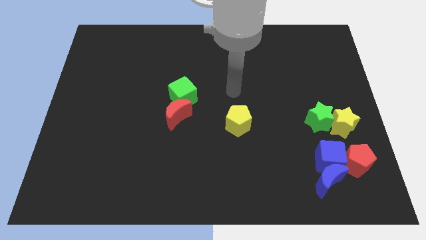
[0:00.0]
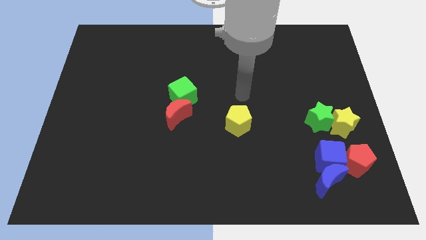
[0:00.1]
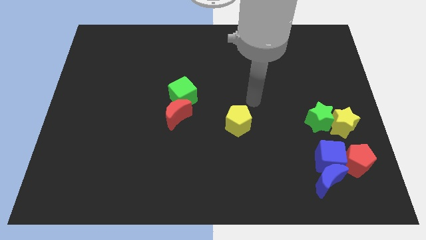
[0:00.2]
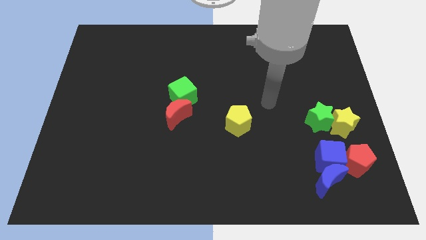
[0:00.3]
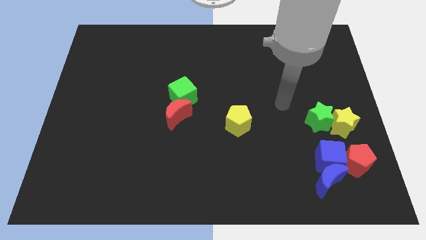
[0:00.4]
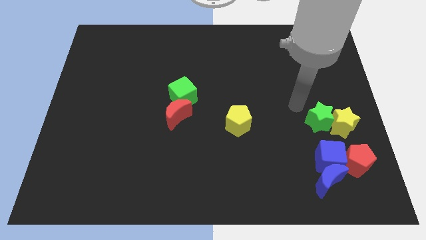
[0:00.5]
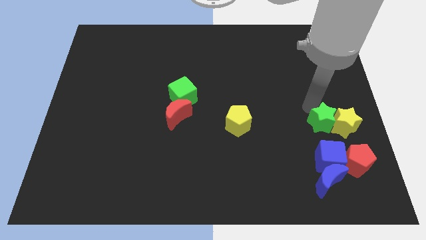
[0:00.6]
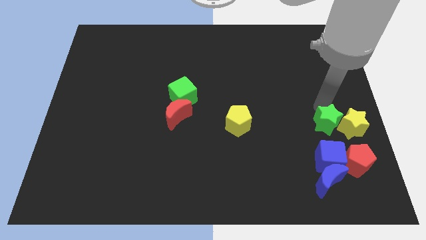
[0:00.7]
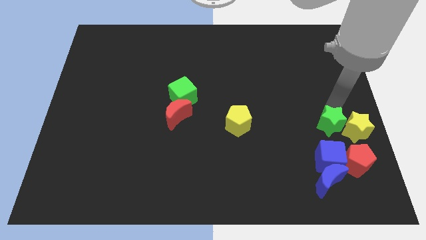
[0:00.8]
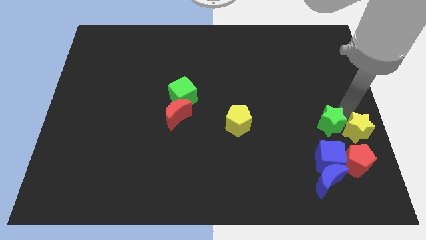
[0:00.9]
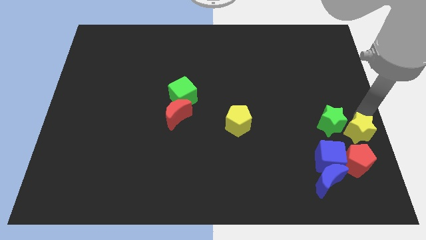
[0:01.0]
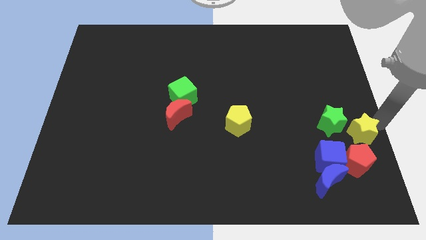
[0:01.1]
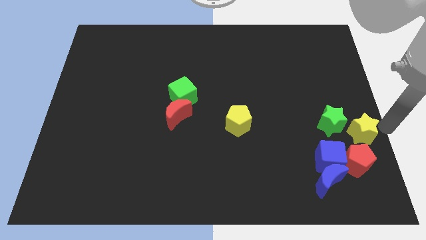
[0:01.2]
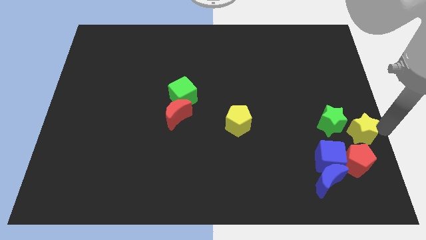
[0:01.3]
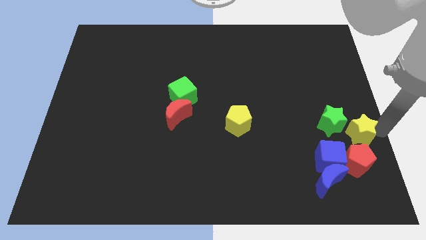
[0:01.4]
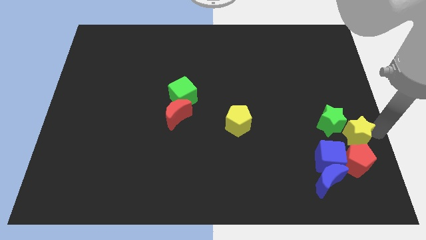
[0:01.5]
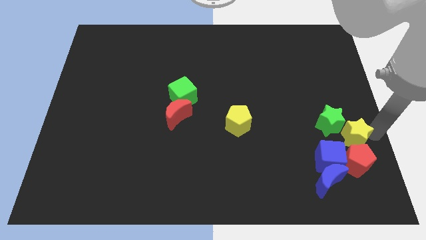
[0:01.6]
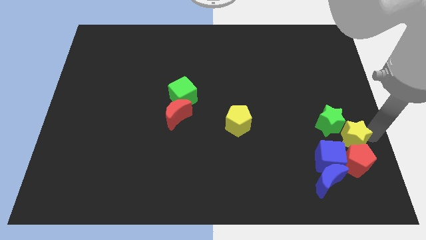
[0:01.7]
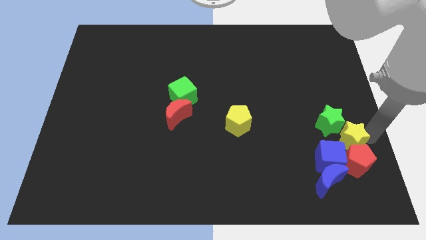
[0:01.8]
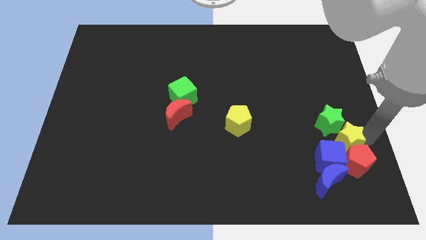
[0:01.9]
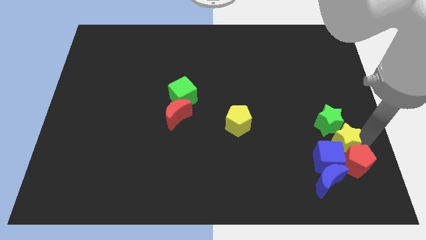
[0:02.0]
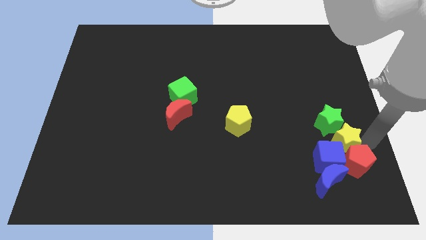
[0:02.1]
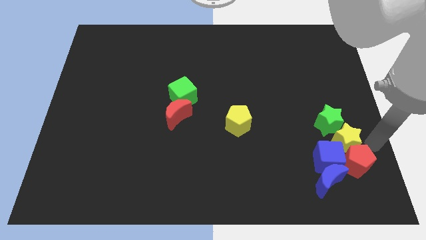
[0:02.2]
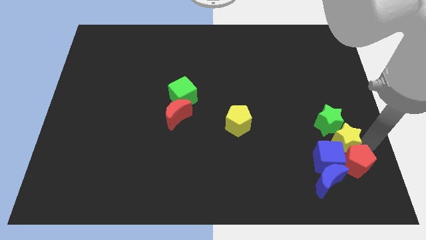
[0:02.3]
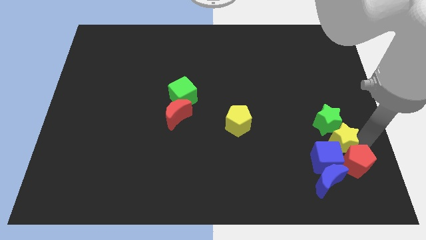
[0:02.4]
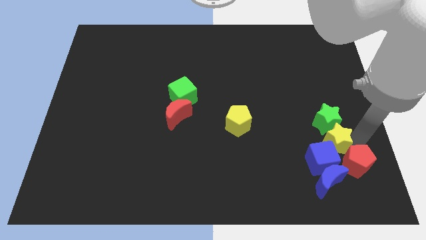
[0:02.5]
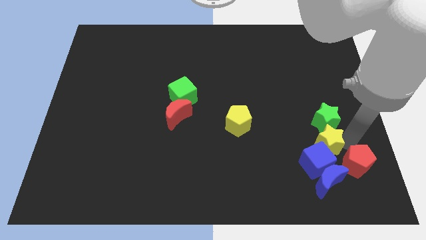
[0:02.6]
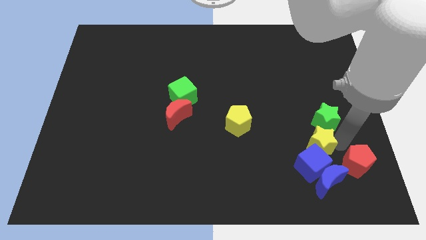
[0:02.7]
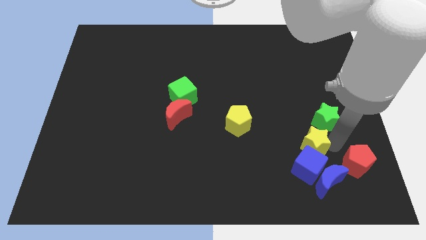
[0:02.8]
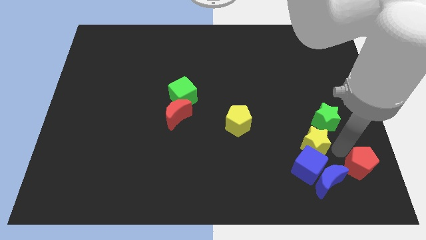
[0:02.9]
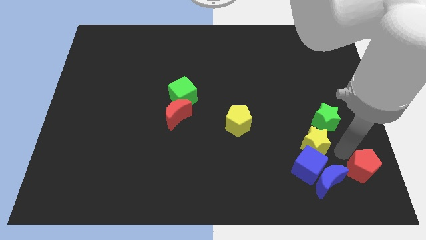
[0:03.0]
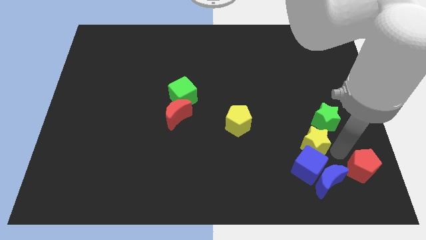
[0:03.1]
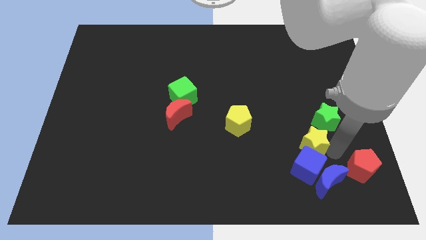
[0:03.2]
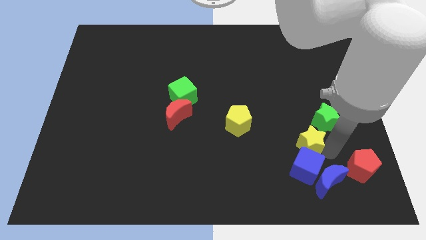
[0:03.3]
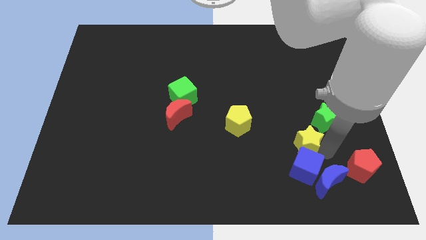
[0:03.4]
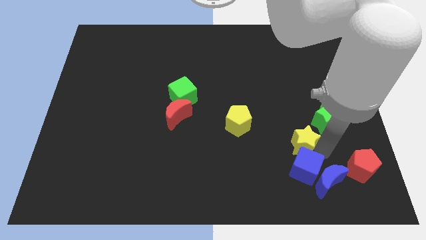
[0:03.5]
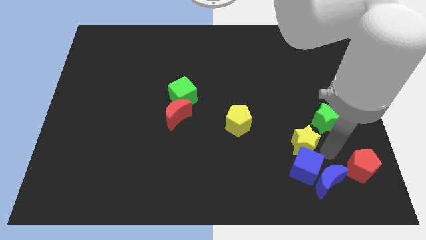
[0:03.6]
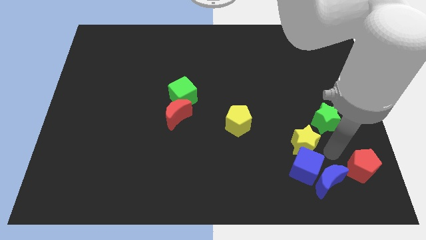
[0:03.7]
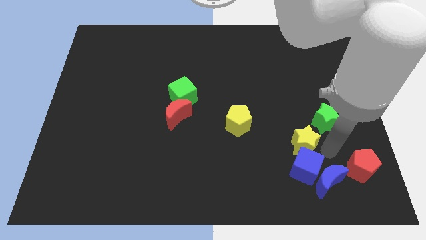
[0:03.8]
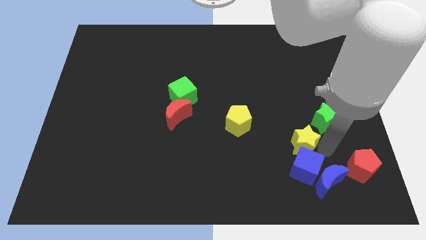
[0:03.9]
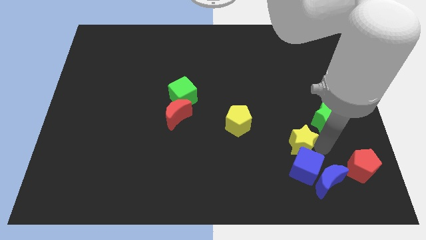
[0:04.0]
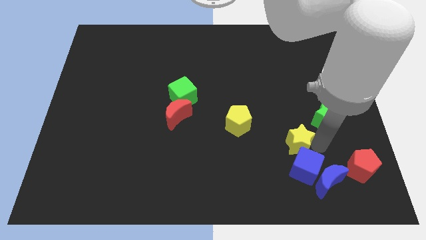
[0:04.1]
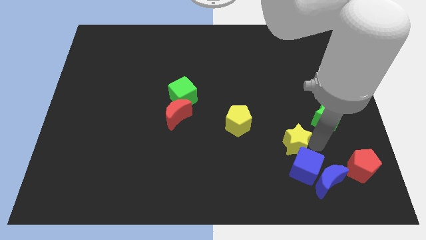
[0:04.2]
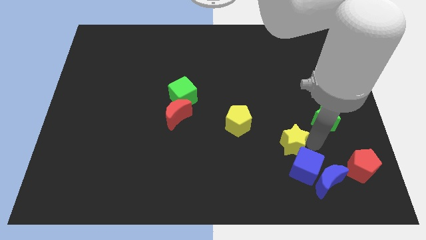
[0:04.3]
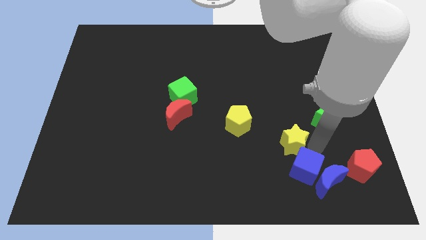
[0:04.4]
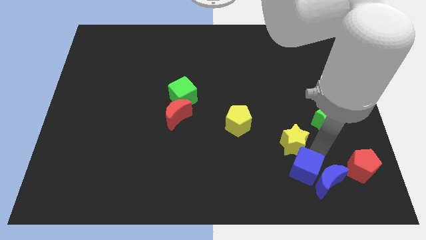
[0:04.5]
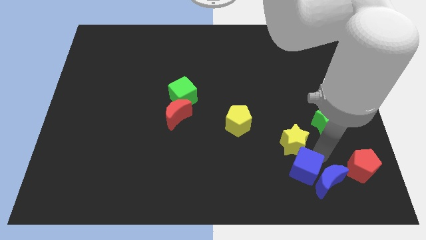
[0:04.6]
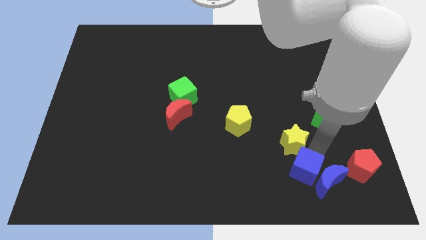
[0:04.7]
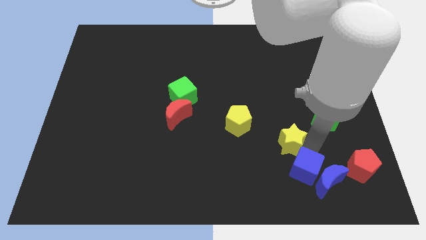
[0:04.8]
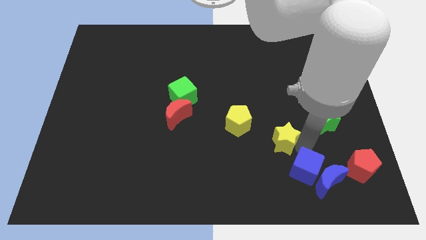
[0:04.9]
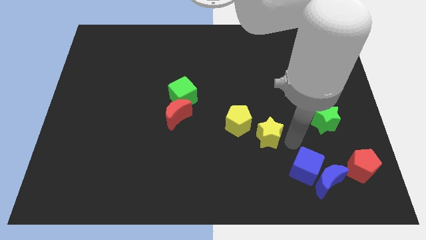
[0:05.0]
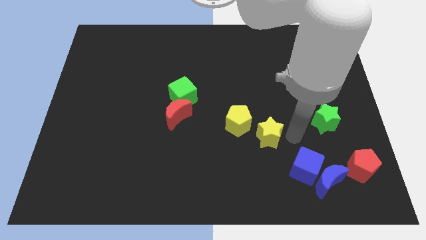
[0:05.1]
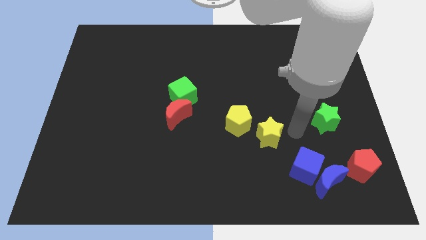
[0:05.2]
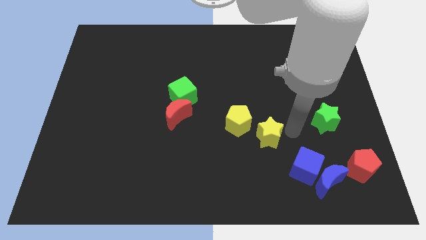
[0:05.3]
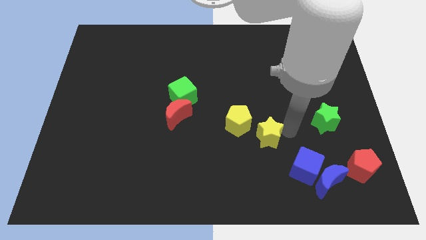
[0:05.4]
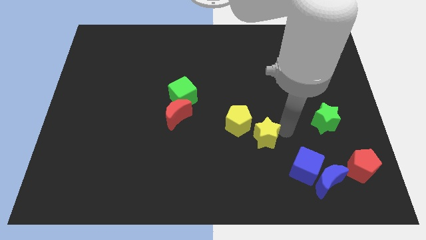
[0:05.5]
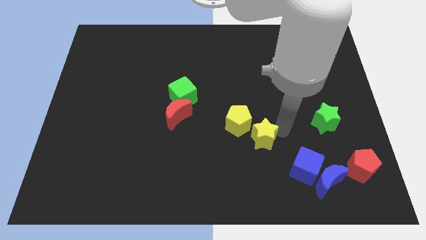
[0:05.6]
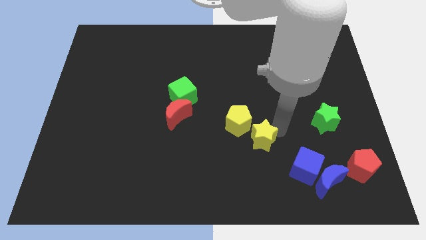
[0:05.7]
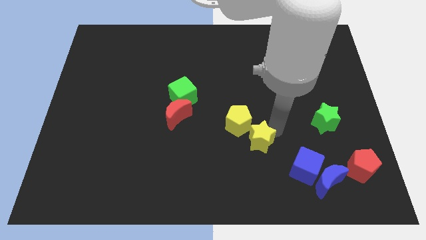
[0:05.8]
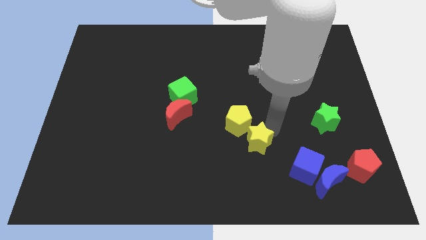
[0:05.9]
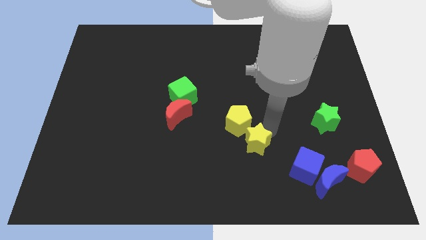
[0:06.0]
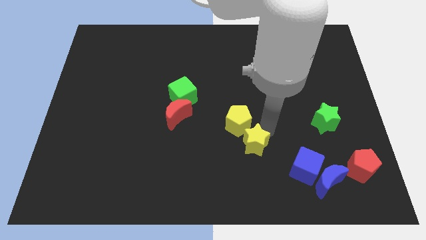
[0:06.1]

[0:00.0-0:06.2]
move the yellow star left

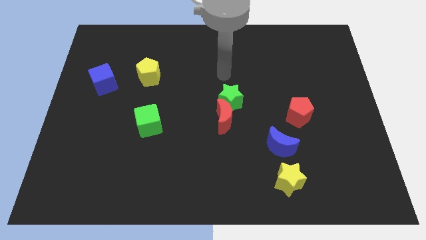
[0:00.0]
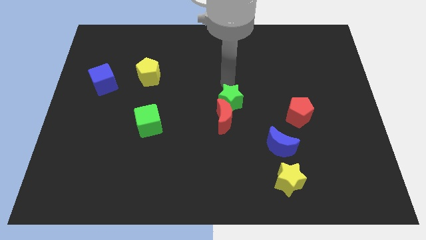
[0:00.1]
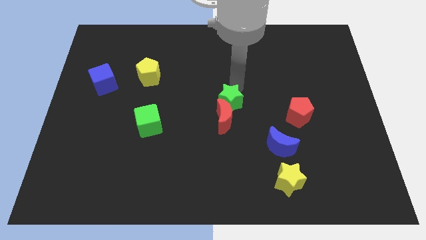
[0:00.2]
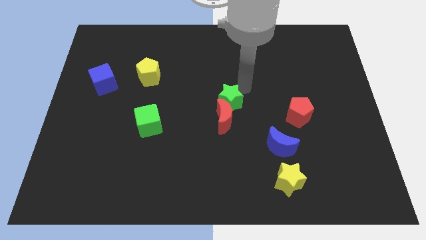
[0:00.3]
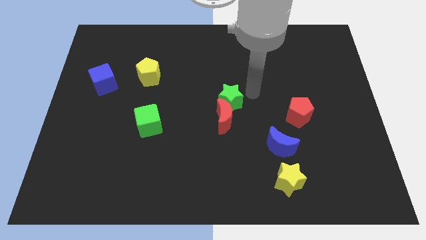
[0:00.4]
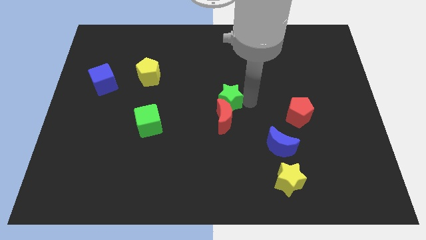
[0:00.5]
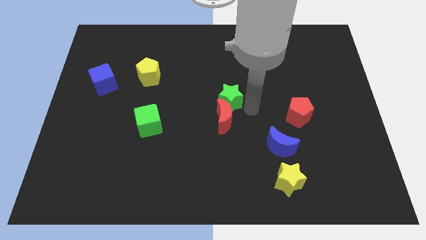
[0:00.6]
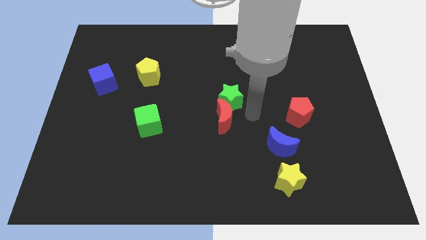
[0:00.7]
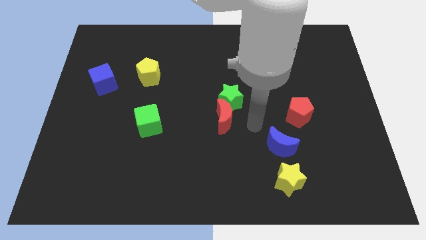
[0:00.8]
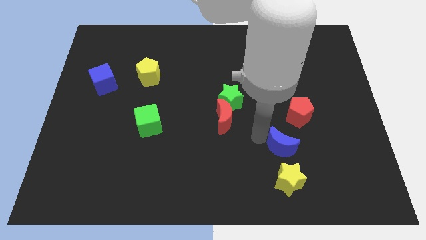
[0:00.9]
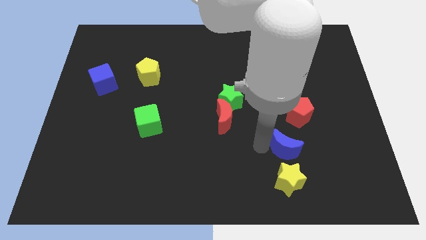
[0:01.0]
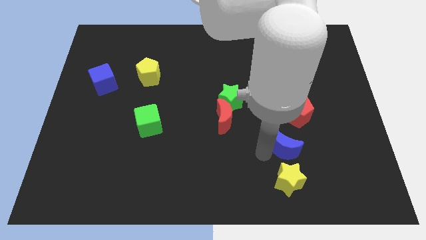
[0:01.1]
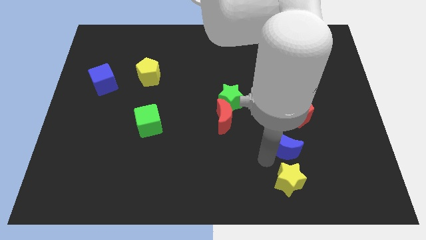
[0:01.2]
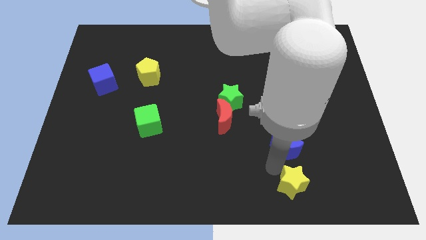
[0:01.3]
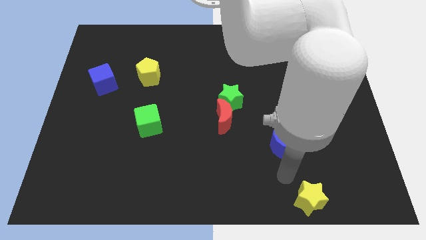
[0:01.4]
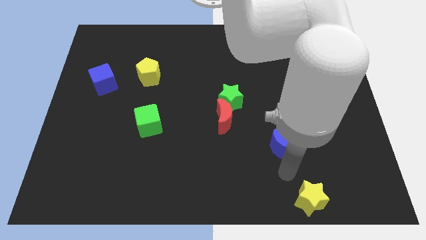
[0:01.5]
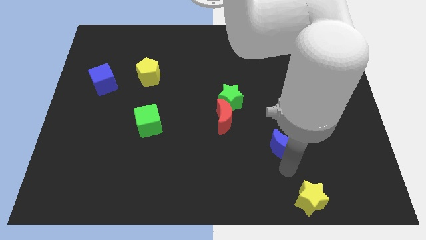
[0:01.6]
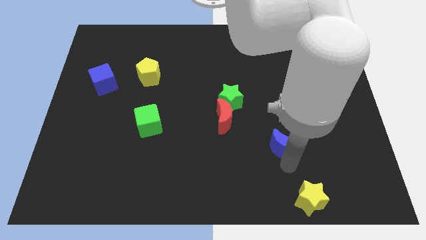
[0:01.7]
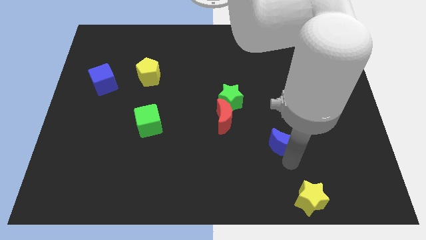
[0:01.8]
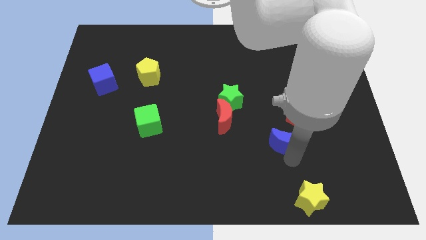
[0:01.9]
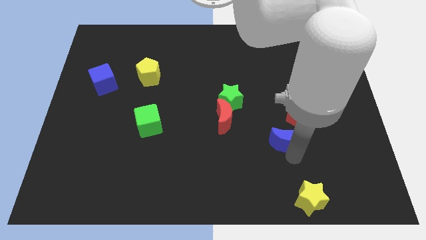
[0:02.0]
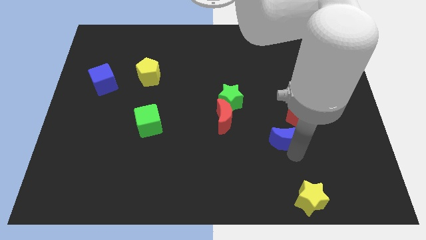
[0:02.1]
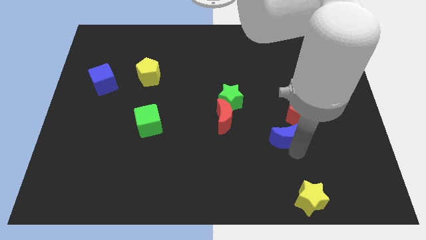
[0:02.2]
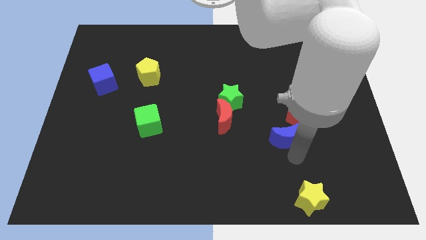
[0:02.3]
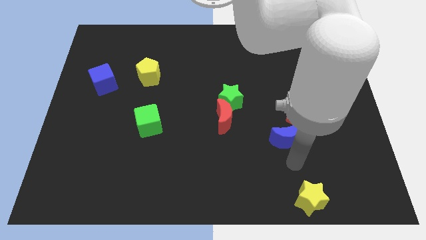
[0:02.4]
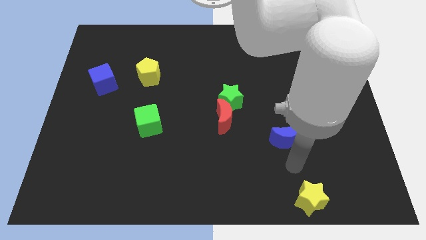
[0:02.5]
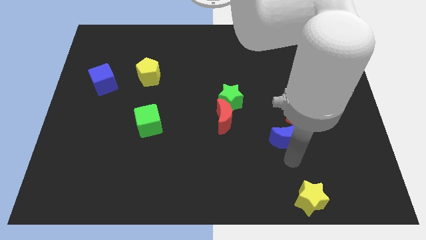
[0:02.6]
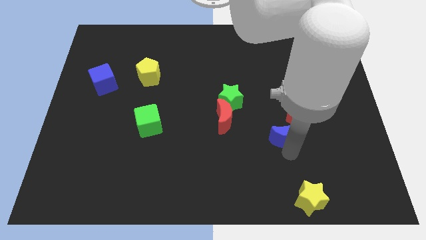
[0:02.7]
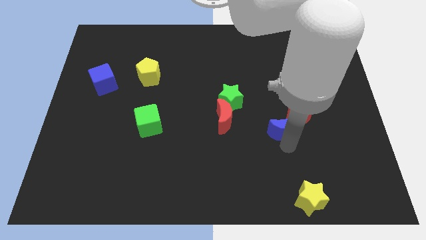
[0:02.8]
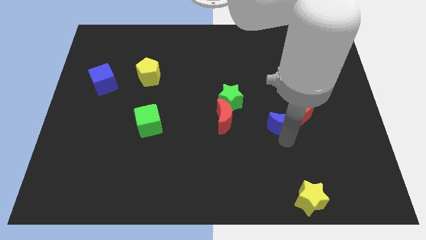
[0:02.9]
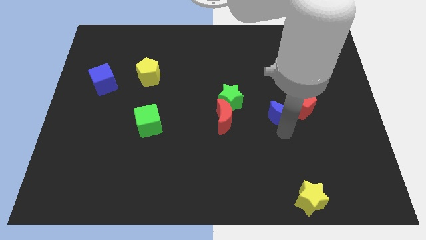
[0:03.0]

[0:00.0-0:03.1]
slightly move the blue moon upwards
